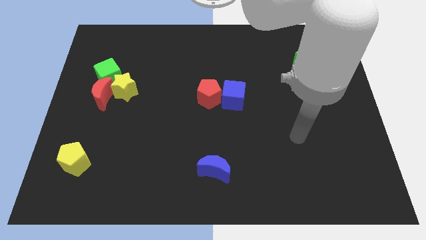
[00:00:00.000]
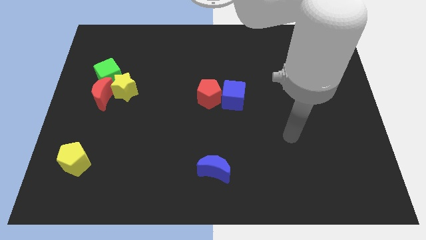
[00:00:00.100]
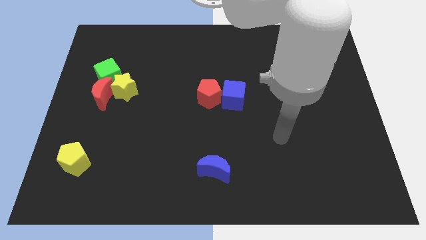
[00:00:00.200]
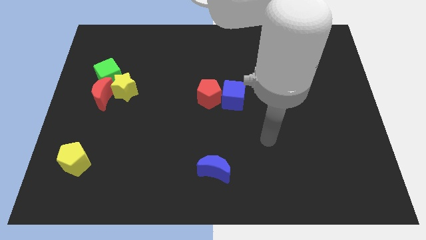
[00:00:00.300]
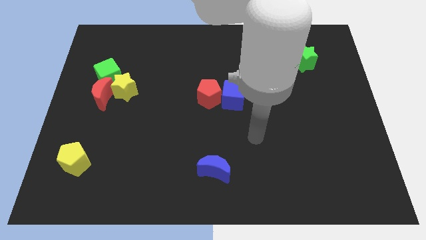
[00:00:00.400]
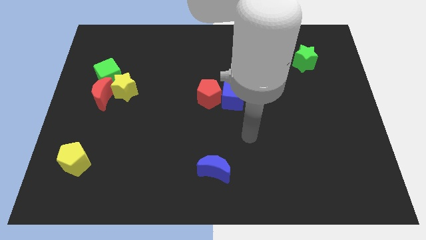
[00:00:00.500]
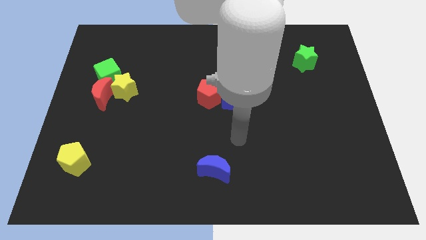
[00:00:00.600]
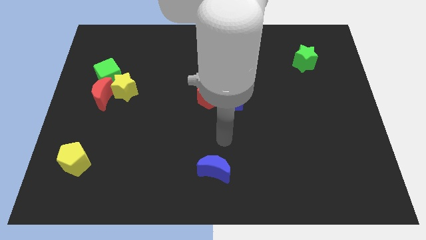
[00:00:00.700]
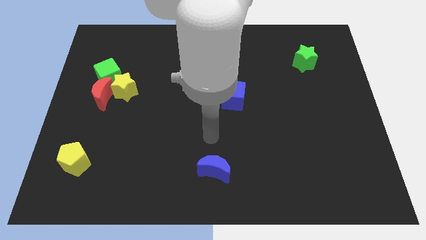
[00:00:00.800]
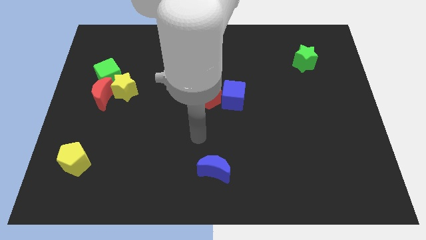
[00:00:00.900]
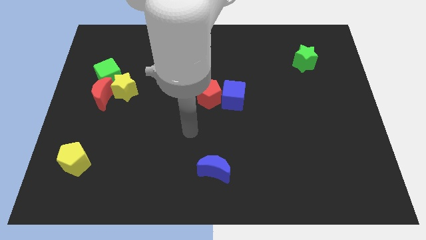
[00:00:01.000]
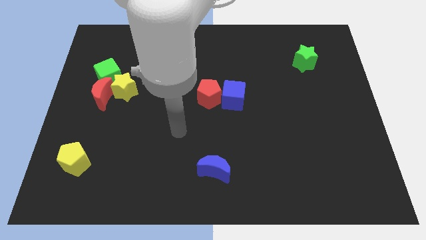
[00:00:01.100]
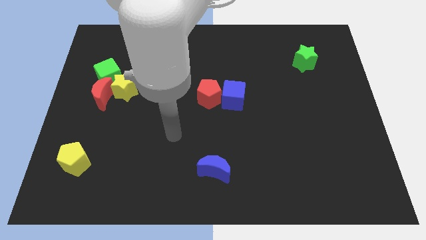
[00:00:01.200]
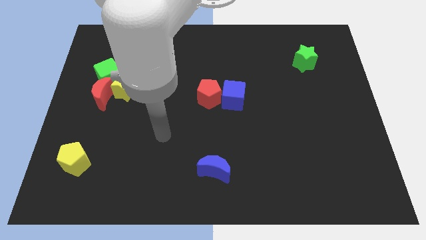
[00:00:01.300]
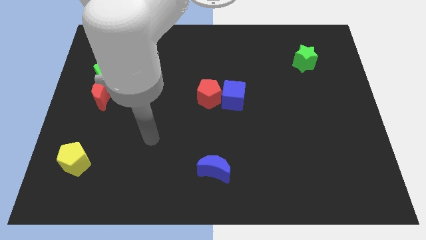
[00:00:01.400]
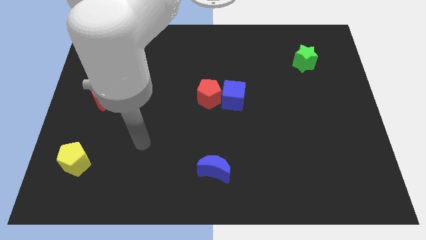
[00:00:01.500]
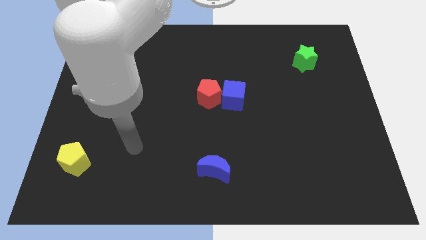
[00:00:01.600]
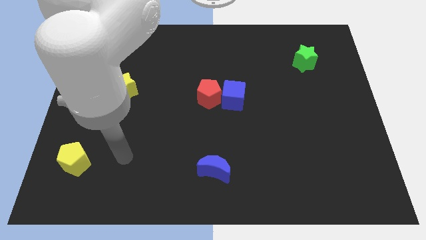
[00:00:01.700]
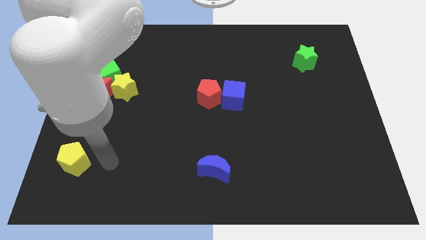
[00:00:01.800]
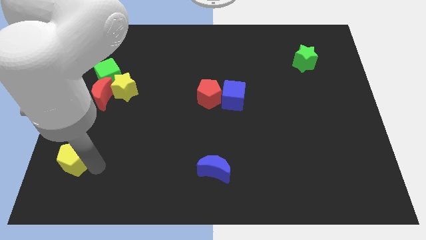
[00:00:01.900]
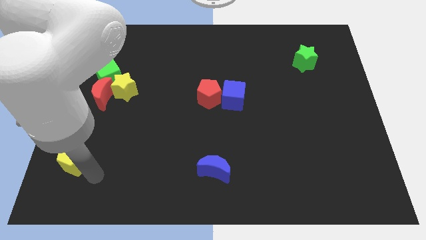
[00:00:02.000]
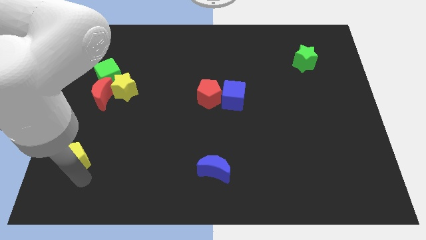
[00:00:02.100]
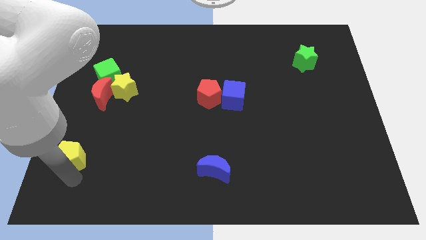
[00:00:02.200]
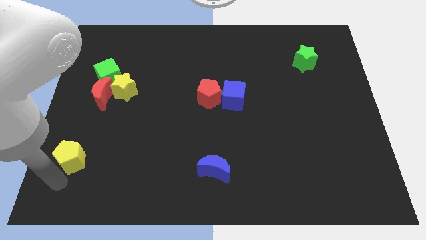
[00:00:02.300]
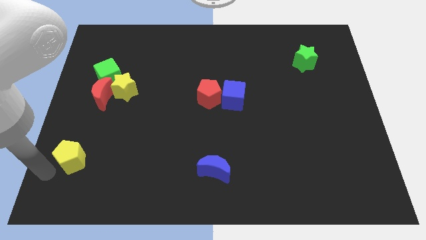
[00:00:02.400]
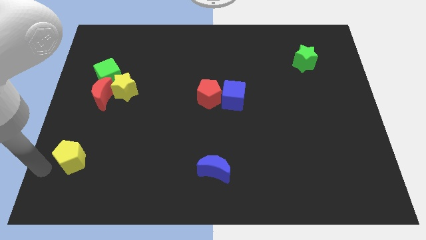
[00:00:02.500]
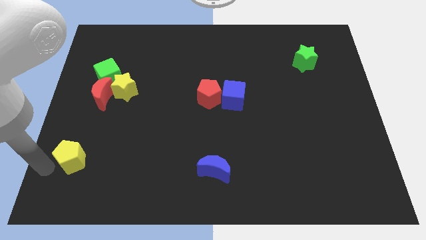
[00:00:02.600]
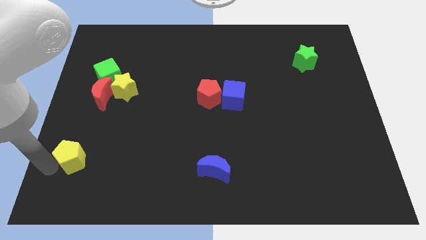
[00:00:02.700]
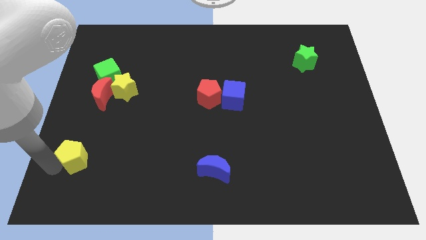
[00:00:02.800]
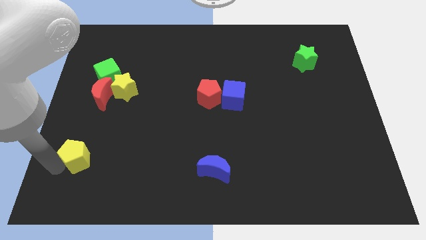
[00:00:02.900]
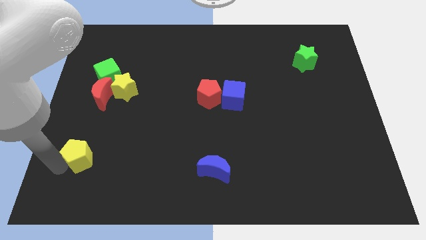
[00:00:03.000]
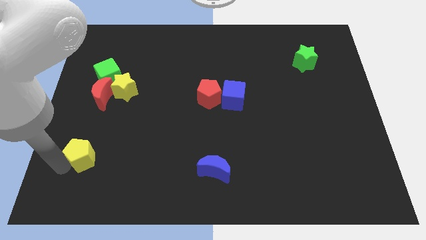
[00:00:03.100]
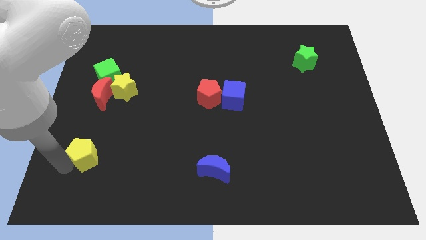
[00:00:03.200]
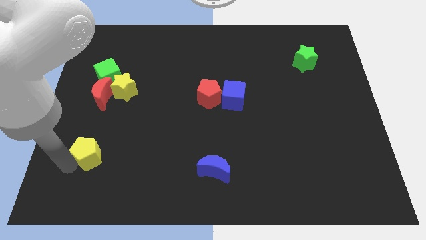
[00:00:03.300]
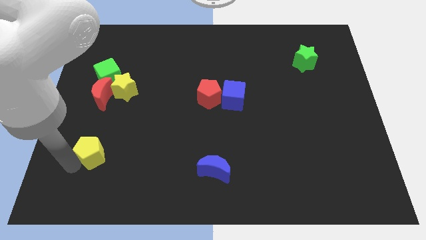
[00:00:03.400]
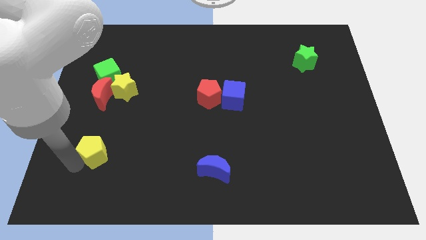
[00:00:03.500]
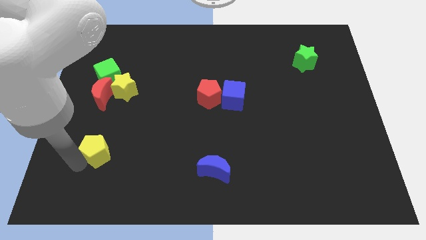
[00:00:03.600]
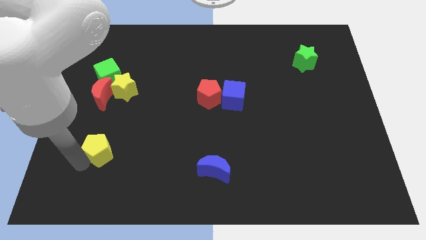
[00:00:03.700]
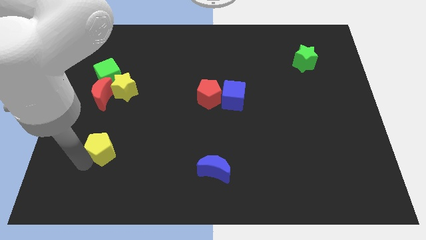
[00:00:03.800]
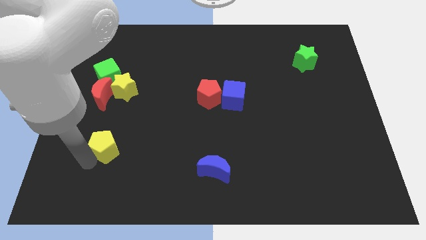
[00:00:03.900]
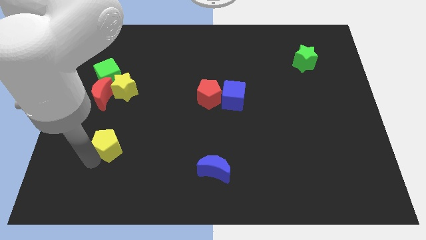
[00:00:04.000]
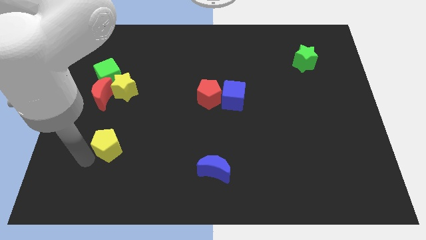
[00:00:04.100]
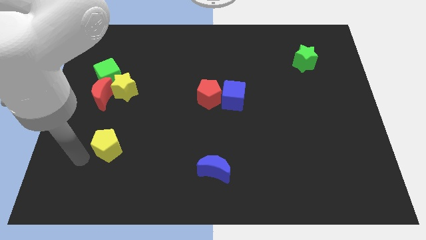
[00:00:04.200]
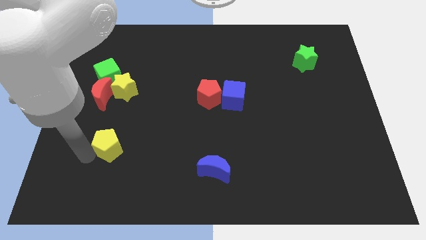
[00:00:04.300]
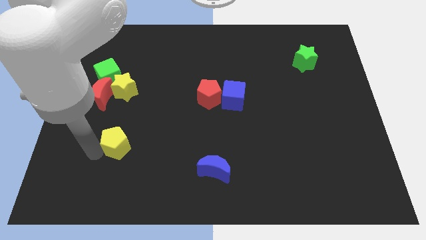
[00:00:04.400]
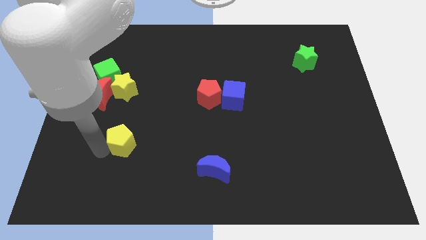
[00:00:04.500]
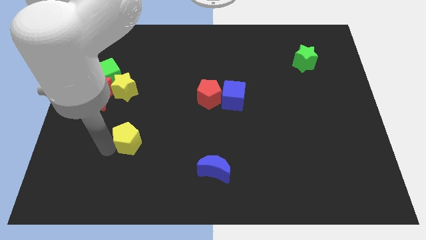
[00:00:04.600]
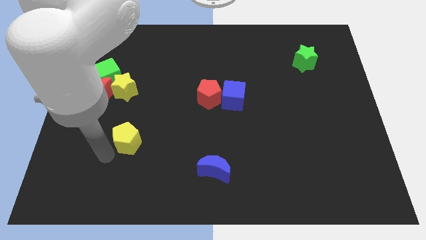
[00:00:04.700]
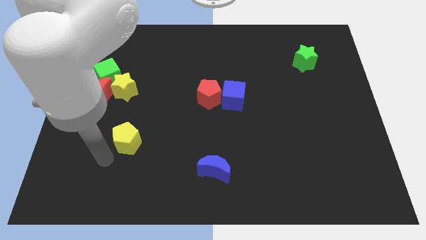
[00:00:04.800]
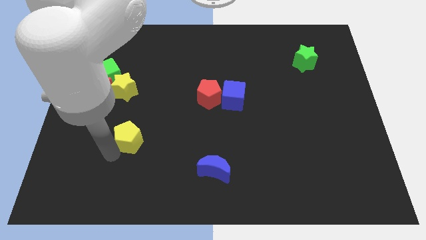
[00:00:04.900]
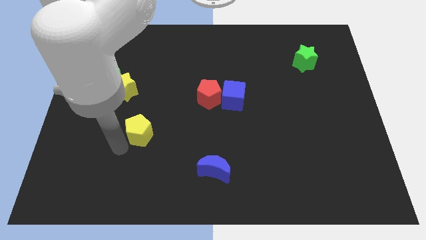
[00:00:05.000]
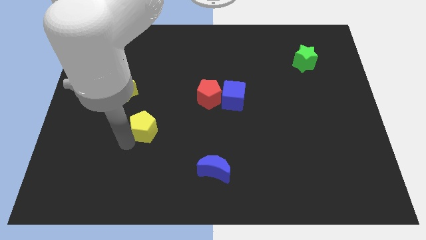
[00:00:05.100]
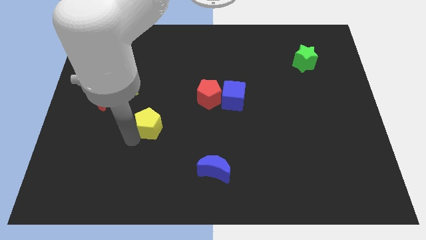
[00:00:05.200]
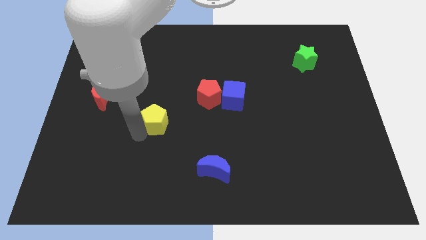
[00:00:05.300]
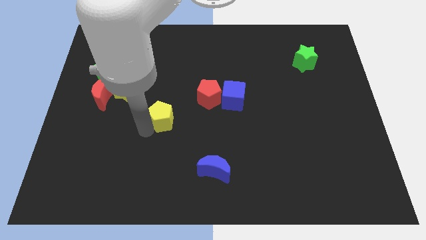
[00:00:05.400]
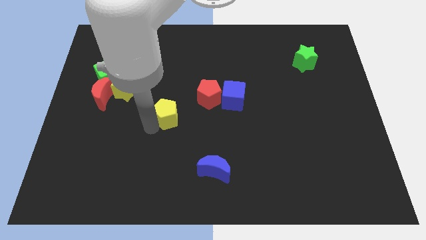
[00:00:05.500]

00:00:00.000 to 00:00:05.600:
slide the yellow pentagon upwards and to the right diagonally

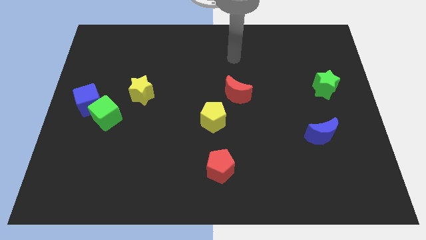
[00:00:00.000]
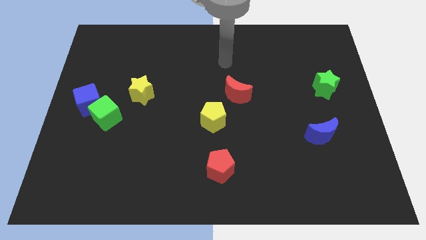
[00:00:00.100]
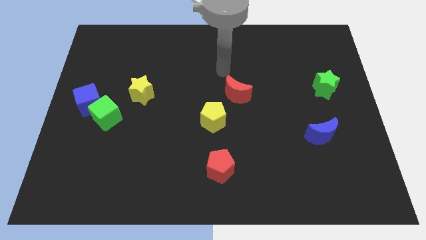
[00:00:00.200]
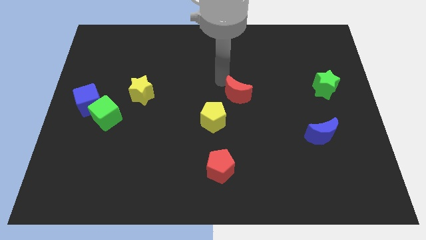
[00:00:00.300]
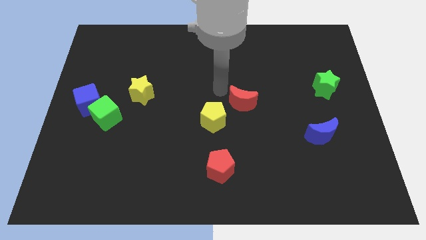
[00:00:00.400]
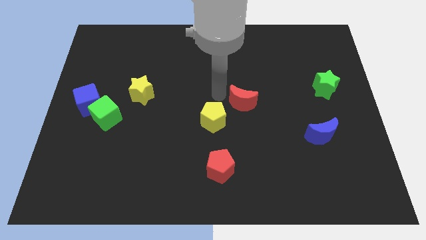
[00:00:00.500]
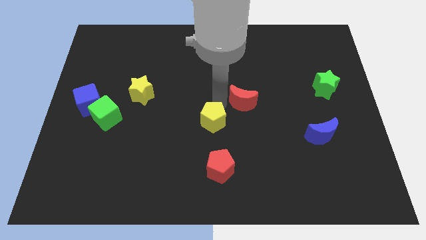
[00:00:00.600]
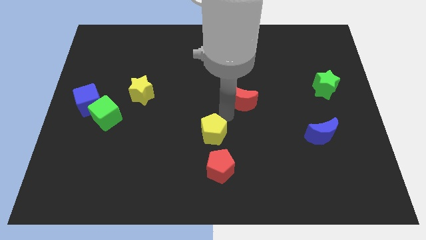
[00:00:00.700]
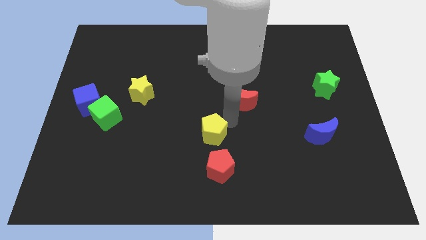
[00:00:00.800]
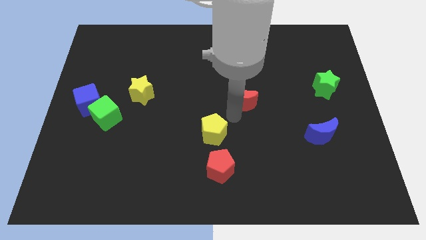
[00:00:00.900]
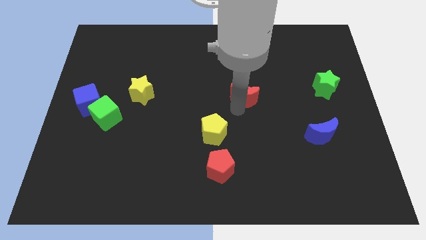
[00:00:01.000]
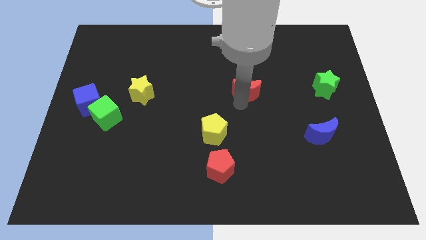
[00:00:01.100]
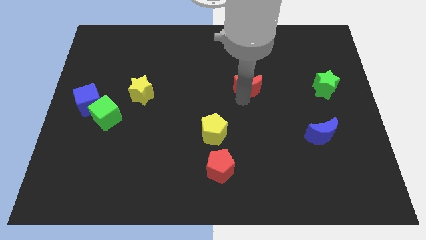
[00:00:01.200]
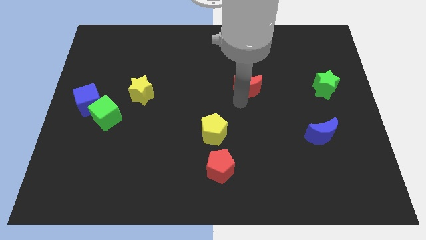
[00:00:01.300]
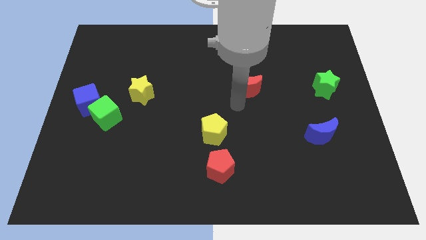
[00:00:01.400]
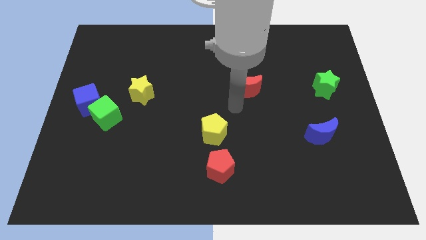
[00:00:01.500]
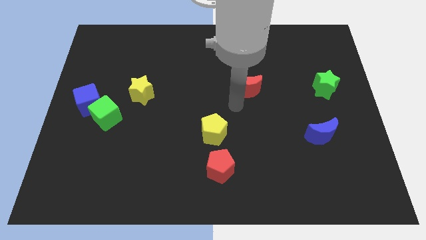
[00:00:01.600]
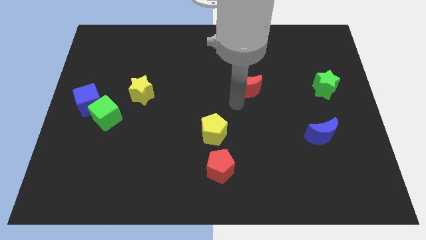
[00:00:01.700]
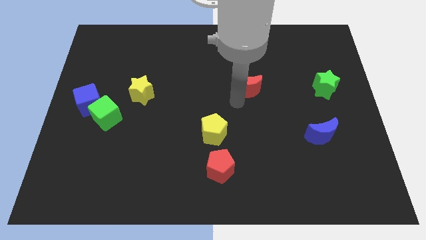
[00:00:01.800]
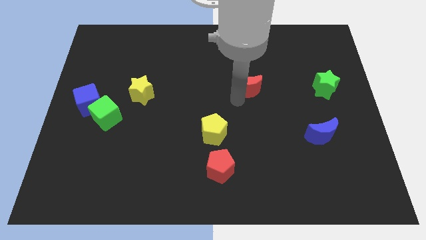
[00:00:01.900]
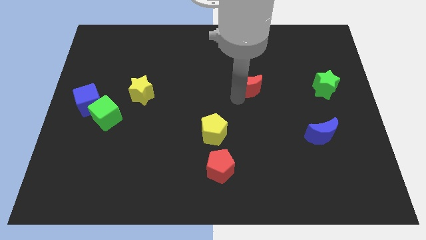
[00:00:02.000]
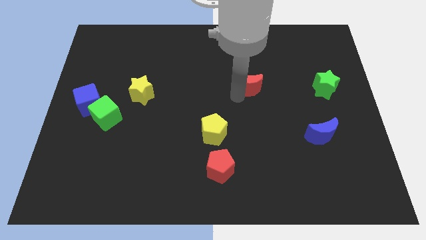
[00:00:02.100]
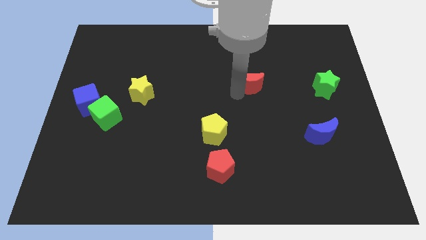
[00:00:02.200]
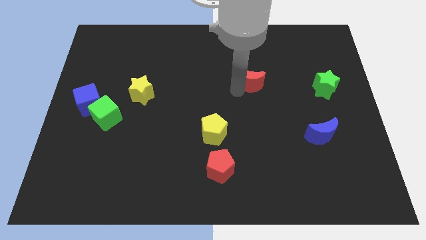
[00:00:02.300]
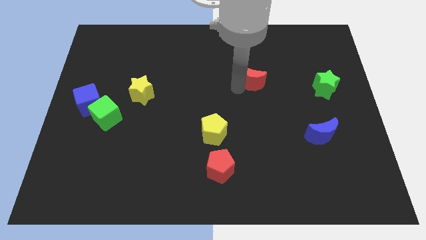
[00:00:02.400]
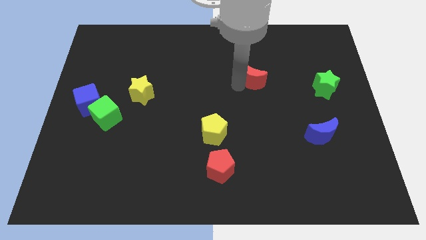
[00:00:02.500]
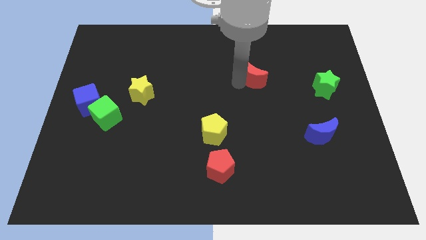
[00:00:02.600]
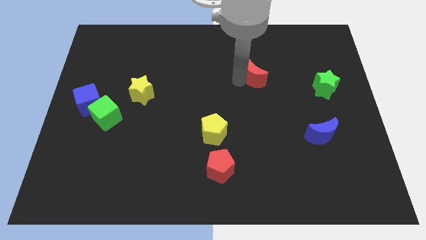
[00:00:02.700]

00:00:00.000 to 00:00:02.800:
move the red moon diagonally up and to the right a bit
